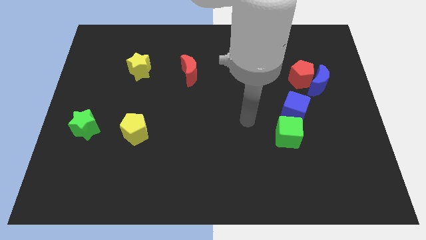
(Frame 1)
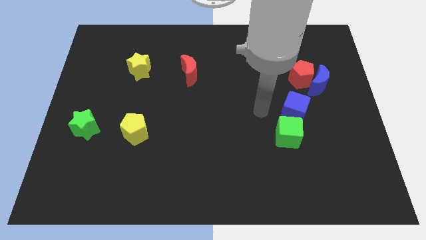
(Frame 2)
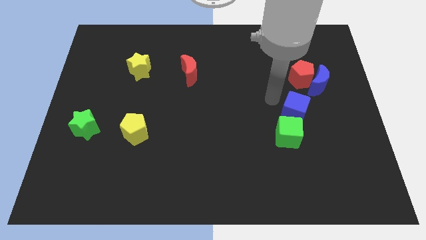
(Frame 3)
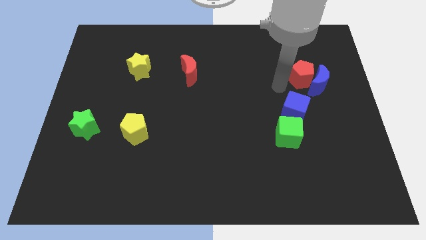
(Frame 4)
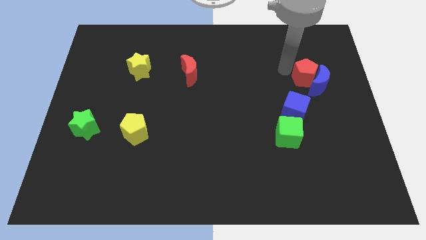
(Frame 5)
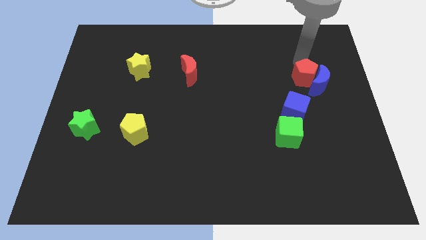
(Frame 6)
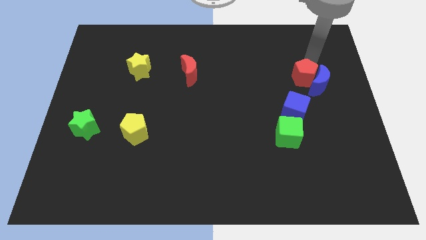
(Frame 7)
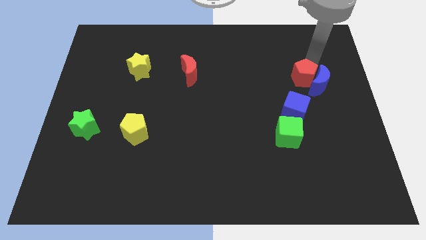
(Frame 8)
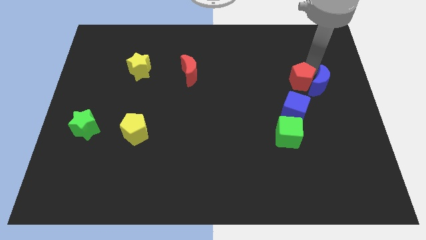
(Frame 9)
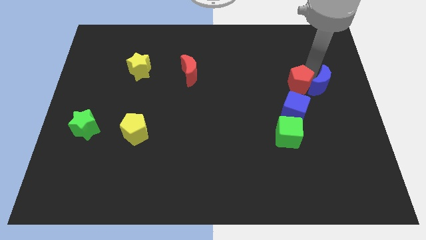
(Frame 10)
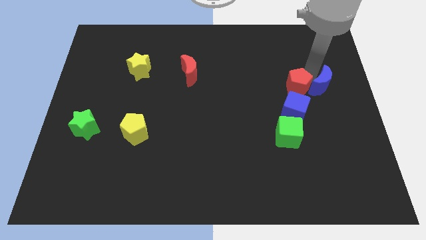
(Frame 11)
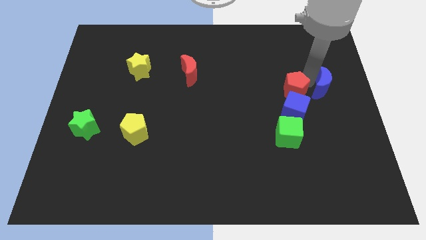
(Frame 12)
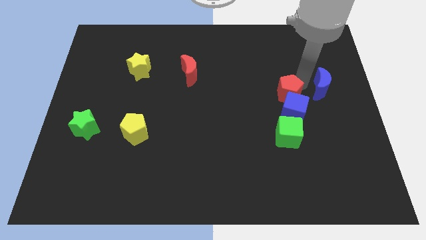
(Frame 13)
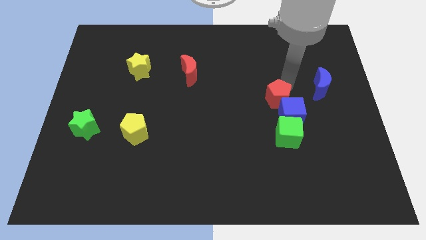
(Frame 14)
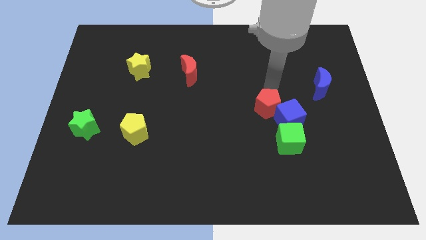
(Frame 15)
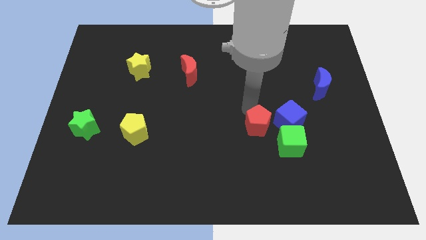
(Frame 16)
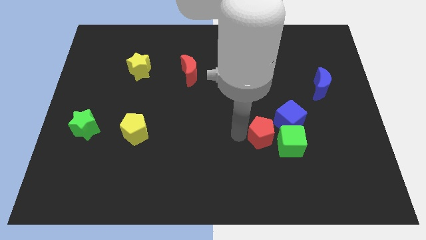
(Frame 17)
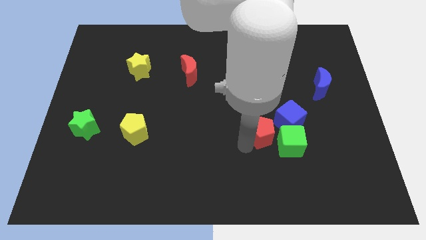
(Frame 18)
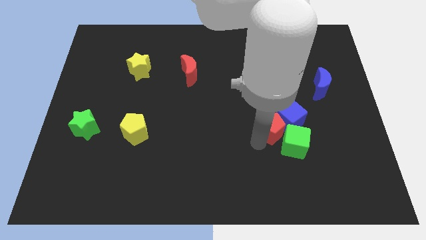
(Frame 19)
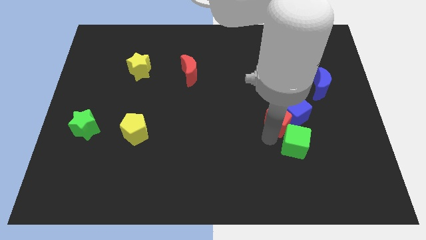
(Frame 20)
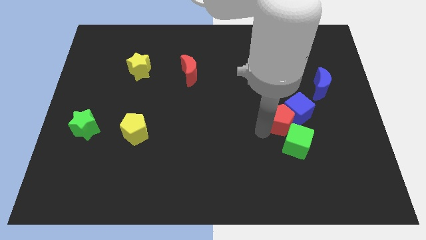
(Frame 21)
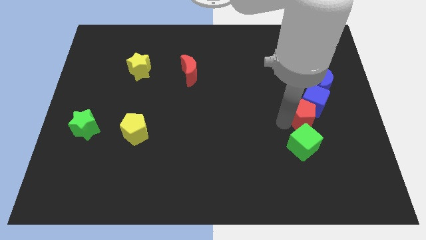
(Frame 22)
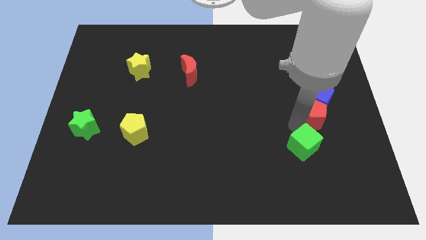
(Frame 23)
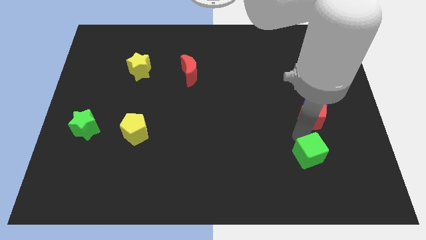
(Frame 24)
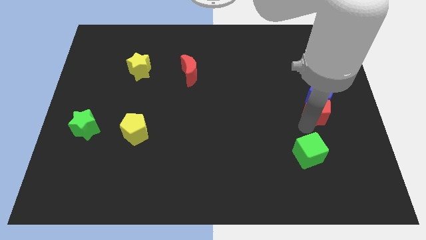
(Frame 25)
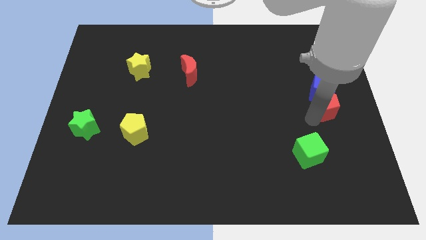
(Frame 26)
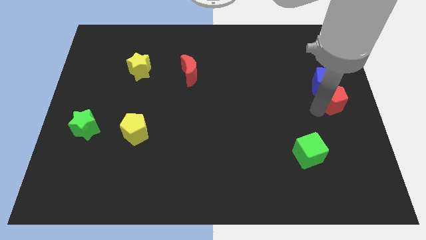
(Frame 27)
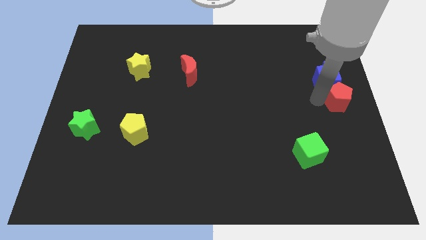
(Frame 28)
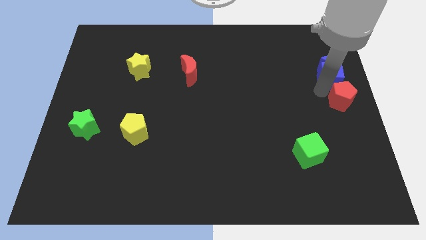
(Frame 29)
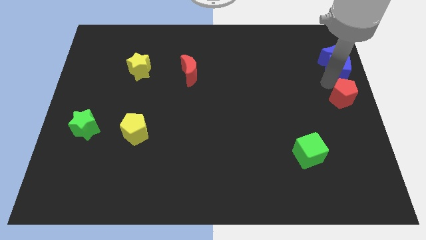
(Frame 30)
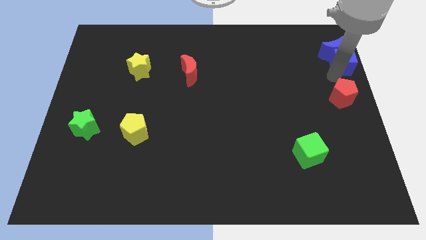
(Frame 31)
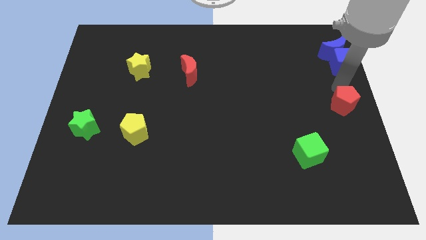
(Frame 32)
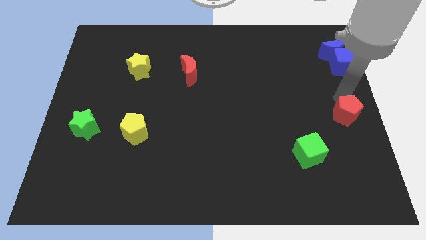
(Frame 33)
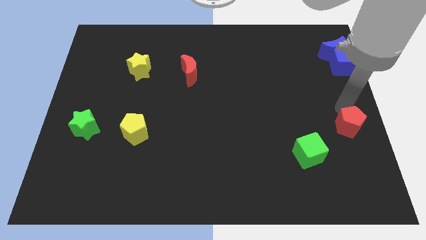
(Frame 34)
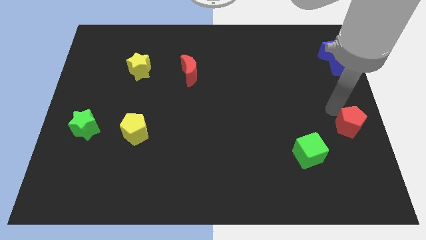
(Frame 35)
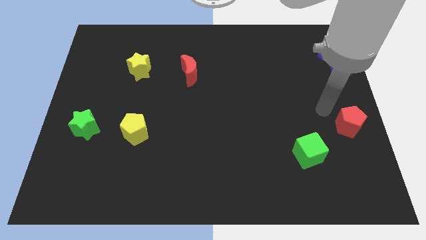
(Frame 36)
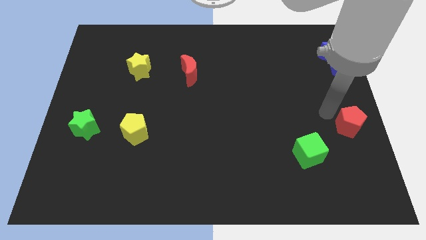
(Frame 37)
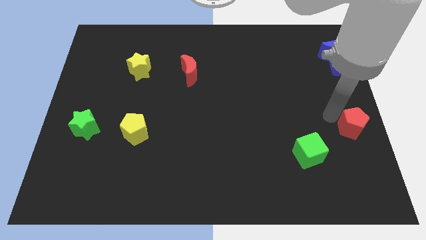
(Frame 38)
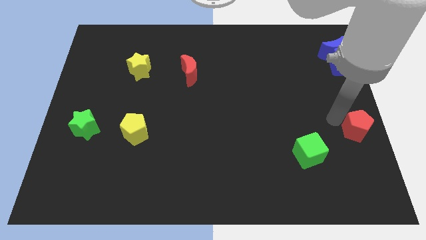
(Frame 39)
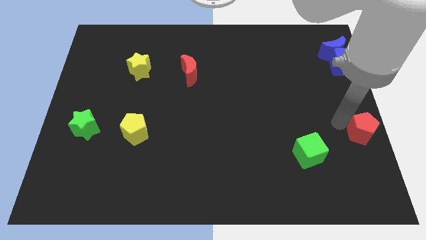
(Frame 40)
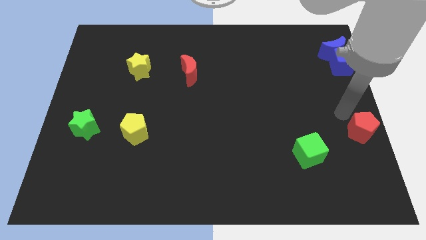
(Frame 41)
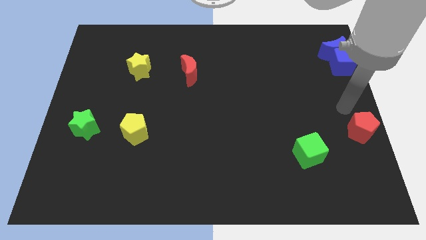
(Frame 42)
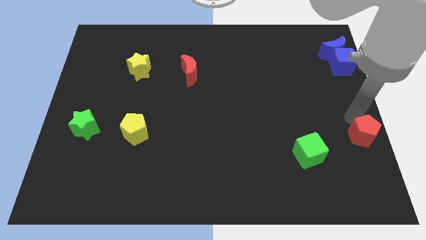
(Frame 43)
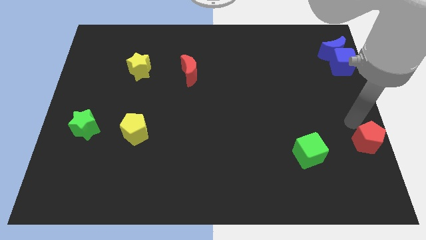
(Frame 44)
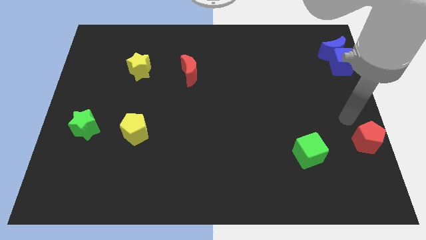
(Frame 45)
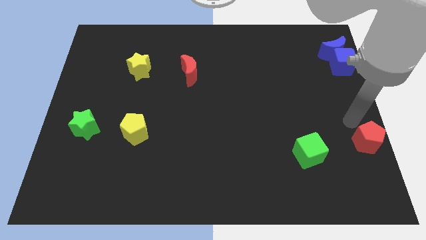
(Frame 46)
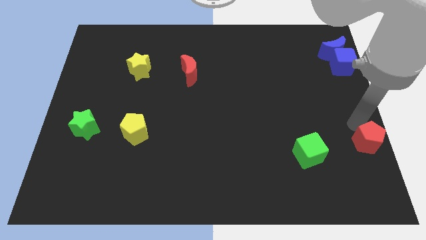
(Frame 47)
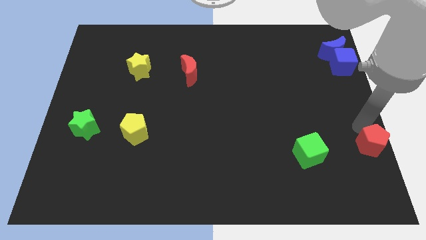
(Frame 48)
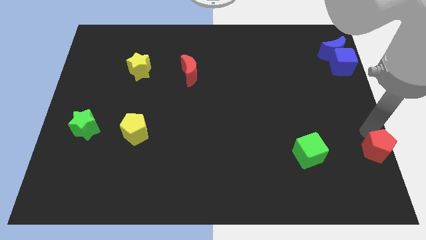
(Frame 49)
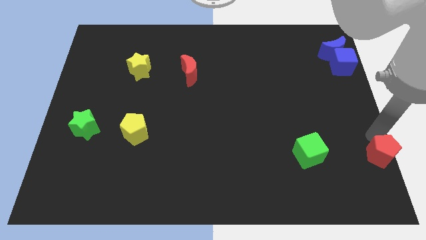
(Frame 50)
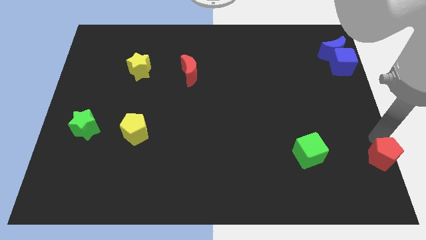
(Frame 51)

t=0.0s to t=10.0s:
move the red pentagon to the bottom right of the board

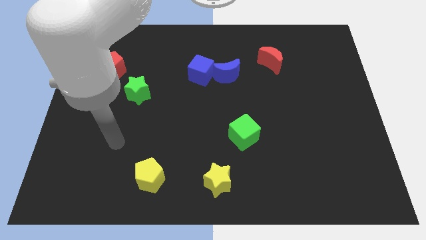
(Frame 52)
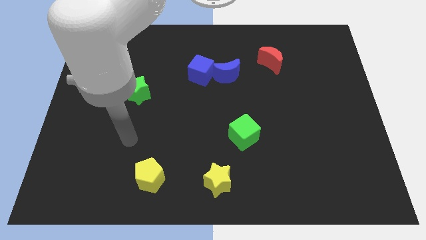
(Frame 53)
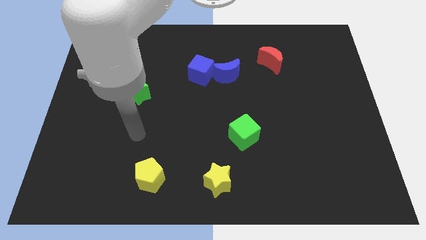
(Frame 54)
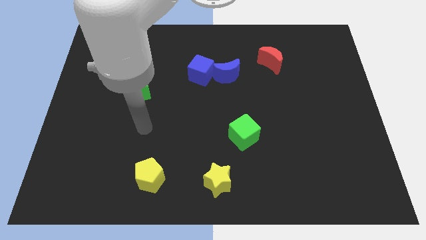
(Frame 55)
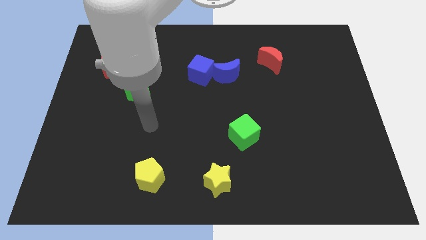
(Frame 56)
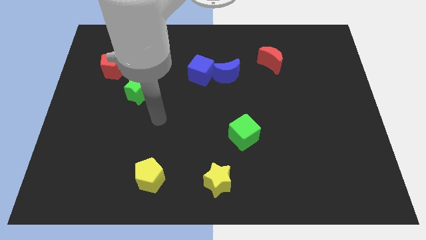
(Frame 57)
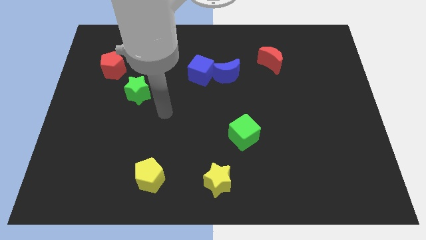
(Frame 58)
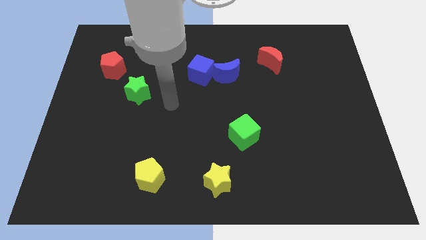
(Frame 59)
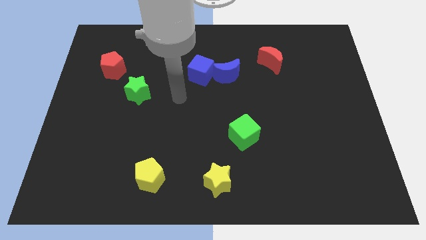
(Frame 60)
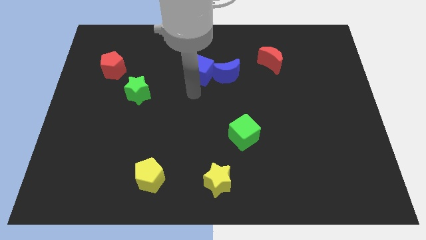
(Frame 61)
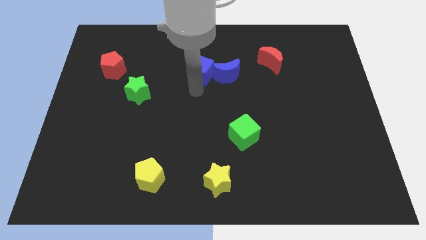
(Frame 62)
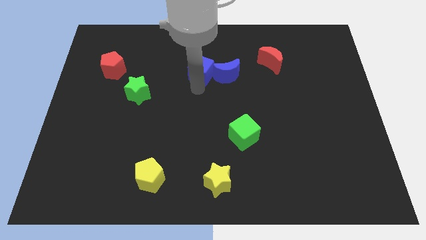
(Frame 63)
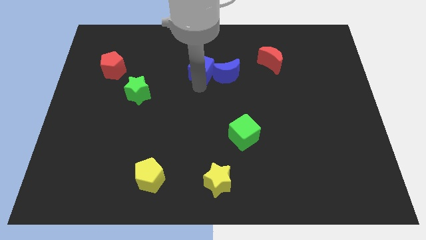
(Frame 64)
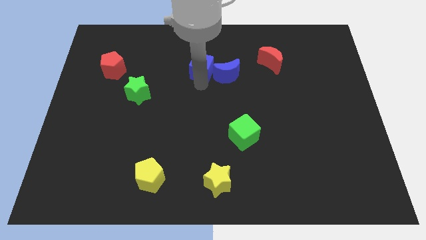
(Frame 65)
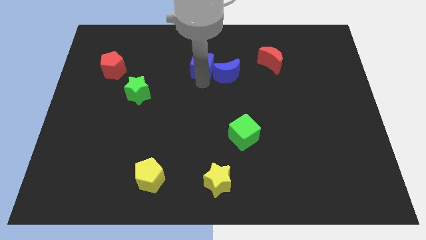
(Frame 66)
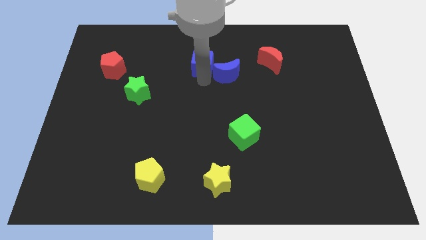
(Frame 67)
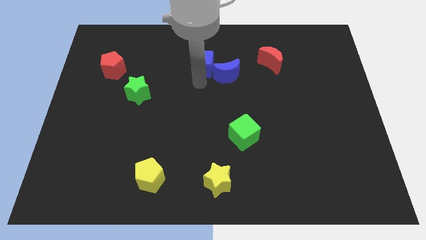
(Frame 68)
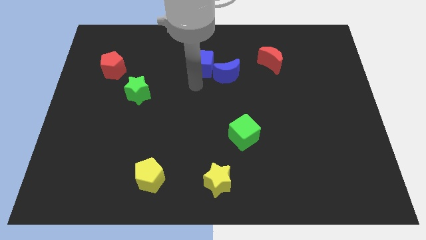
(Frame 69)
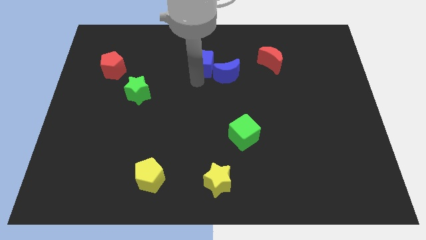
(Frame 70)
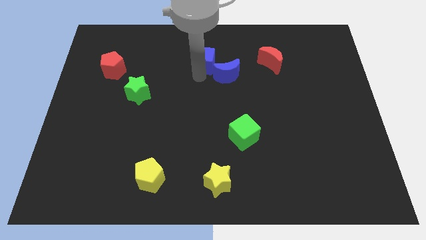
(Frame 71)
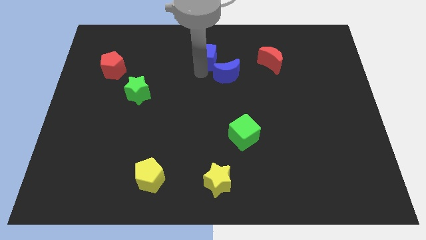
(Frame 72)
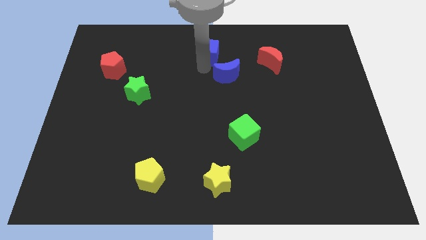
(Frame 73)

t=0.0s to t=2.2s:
slide the blue cube to the top side
